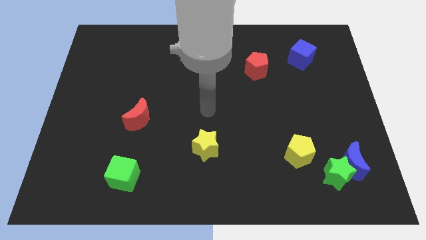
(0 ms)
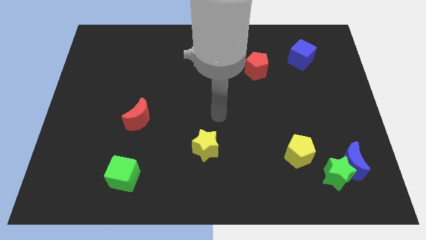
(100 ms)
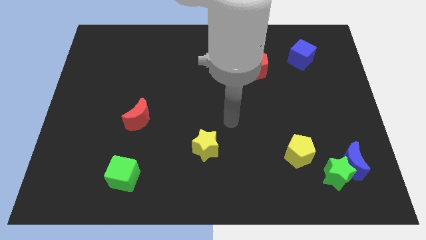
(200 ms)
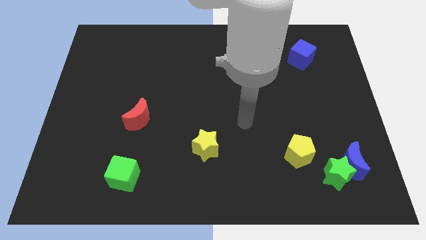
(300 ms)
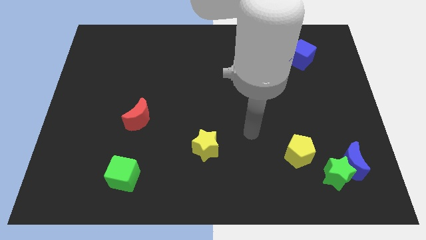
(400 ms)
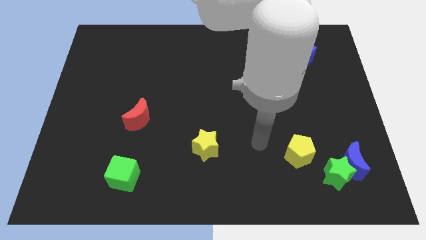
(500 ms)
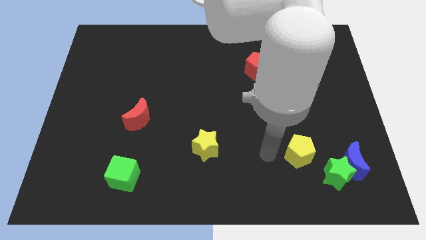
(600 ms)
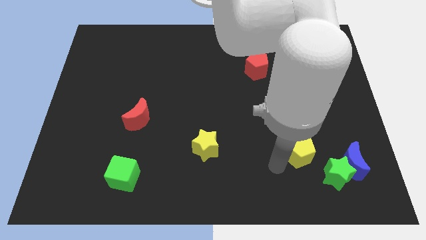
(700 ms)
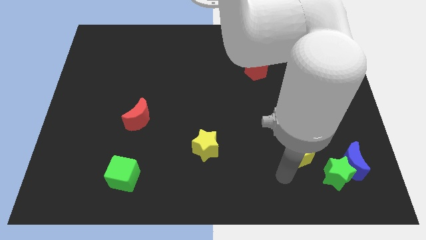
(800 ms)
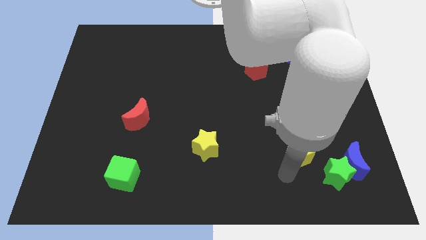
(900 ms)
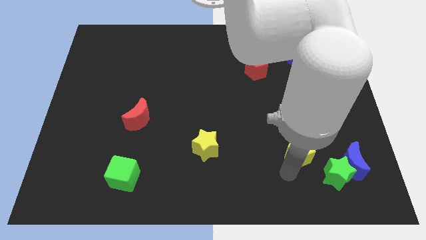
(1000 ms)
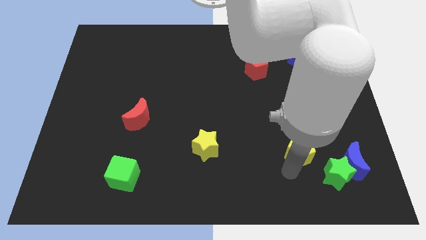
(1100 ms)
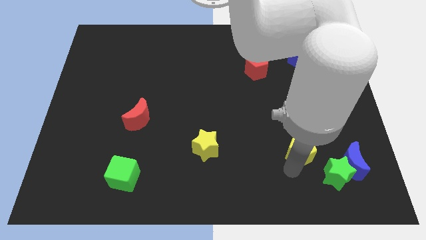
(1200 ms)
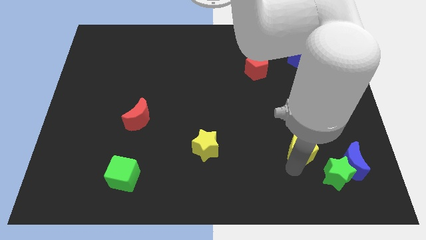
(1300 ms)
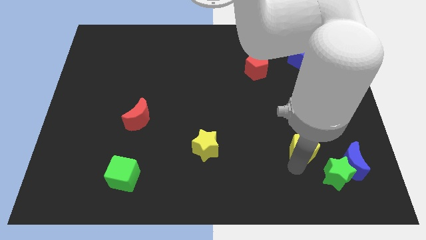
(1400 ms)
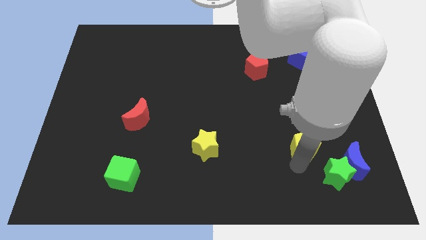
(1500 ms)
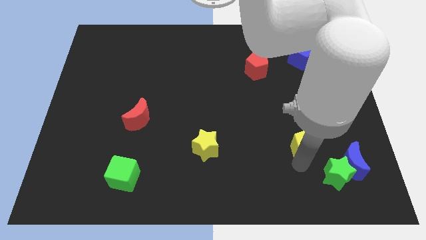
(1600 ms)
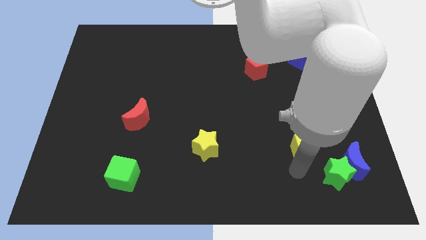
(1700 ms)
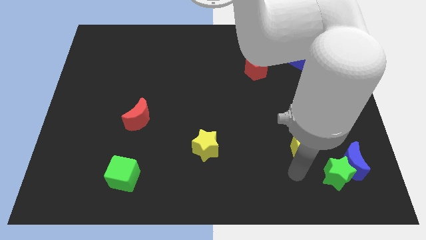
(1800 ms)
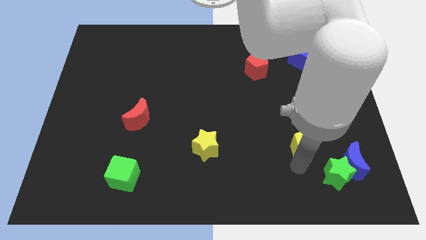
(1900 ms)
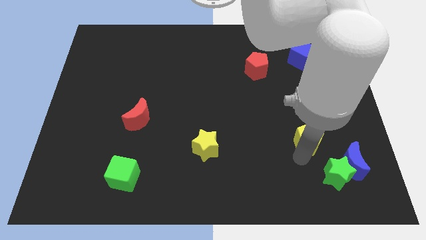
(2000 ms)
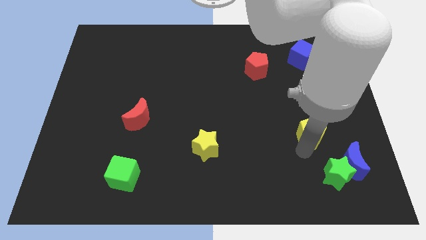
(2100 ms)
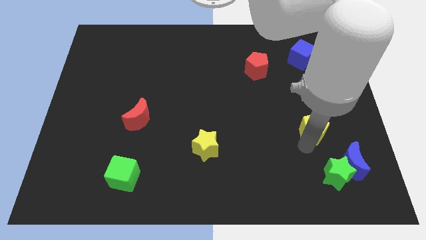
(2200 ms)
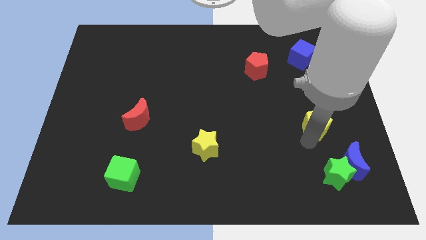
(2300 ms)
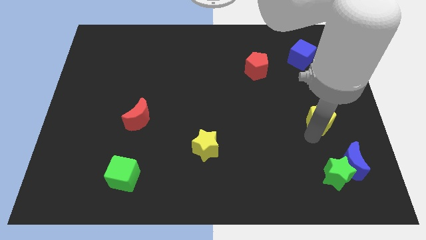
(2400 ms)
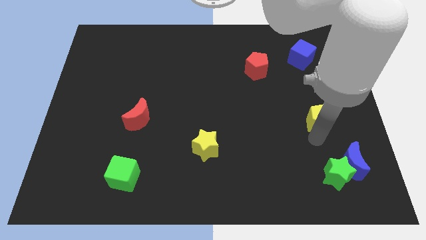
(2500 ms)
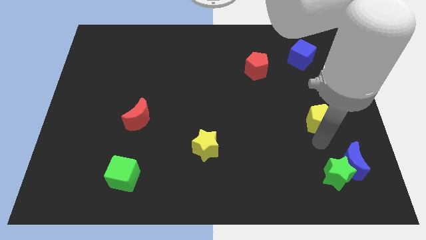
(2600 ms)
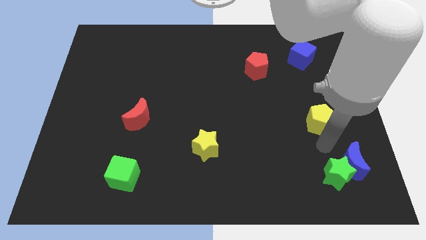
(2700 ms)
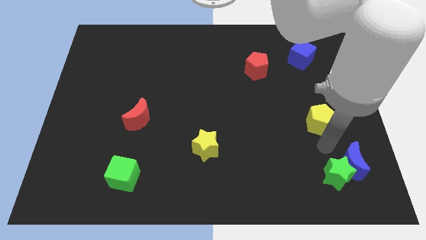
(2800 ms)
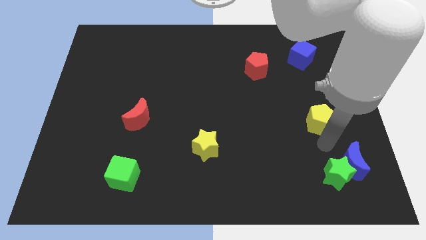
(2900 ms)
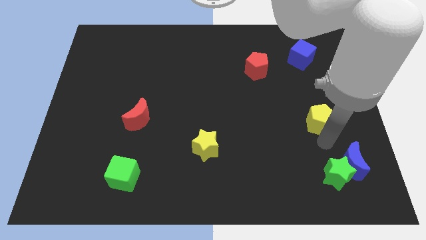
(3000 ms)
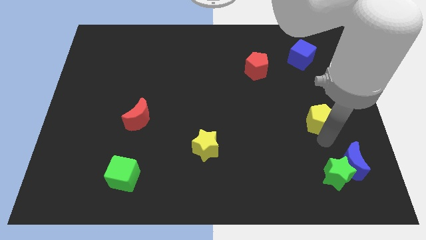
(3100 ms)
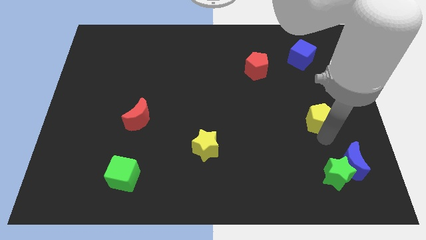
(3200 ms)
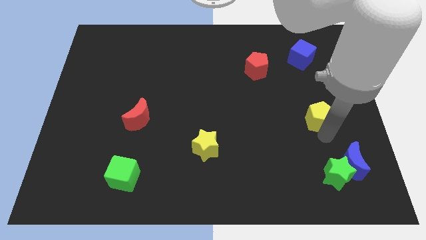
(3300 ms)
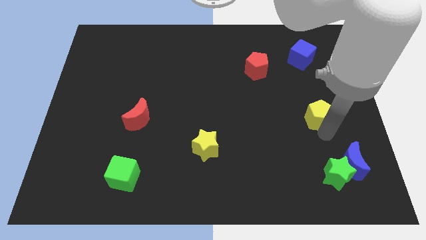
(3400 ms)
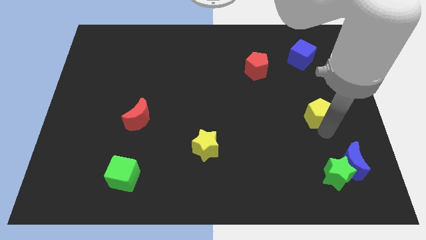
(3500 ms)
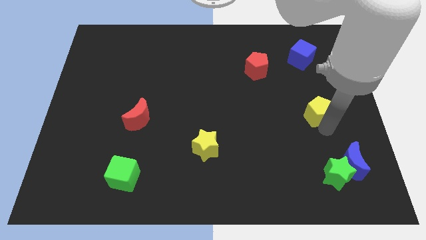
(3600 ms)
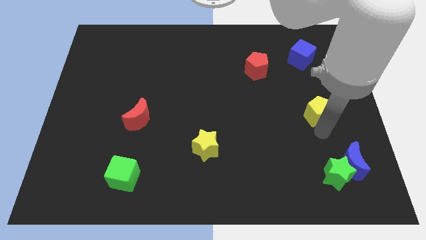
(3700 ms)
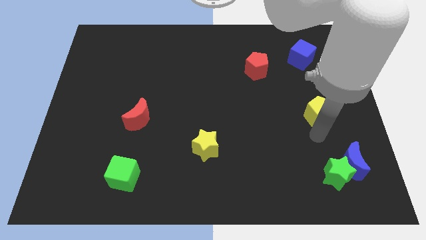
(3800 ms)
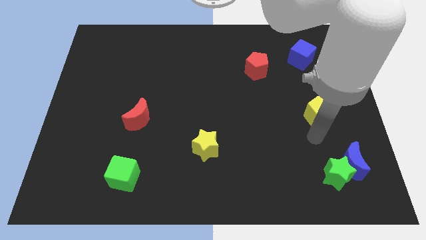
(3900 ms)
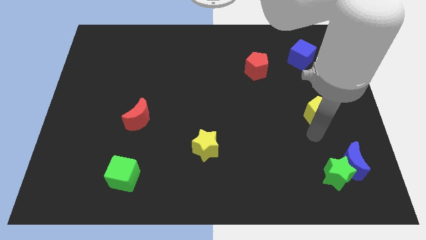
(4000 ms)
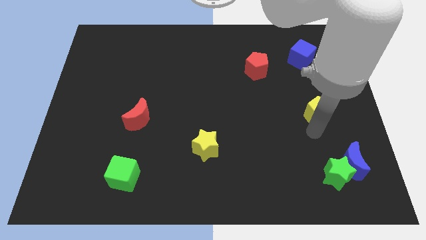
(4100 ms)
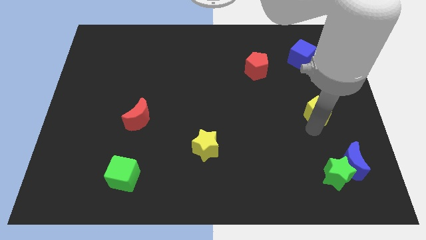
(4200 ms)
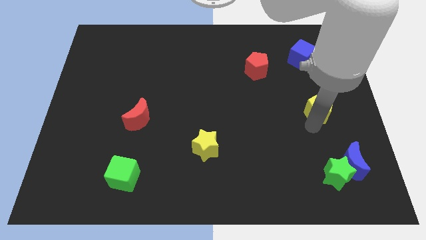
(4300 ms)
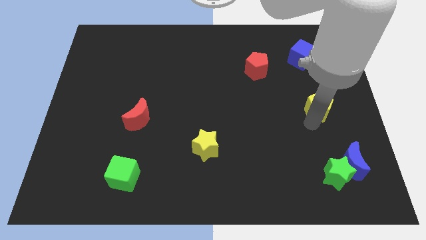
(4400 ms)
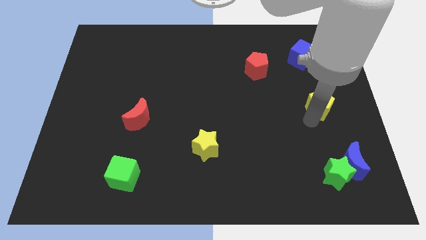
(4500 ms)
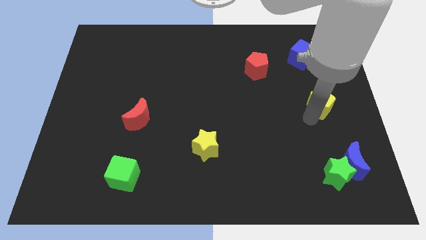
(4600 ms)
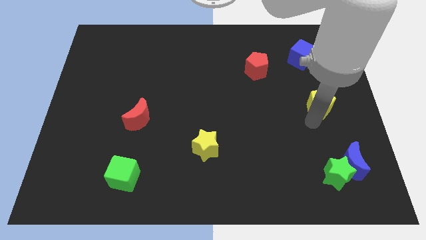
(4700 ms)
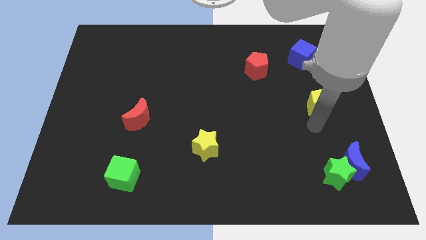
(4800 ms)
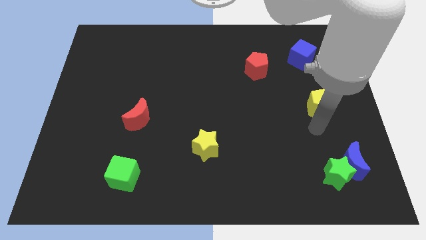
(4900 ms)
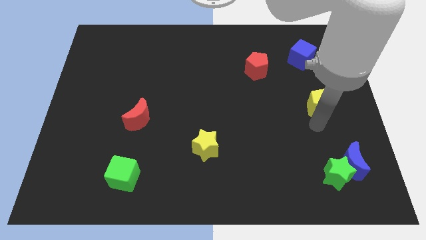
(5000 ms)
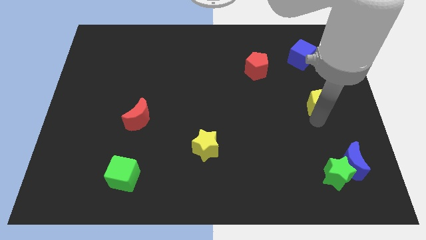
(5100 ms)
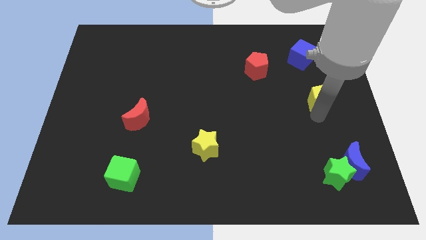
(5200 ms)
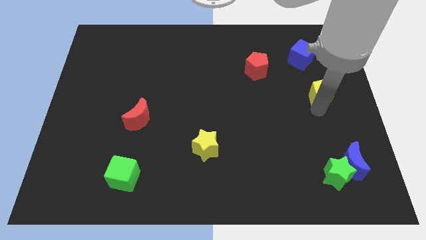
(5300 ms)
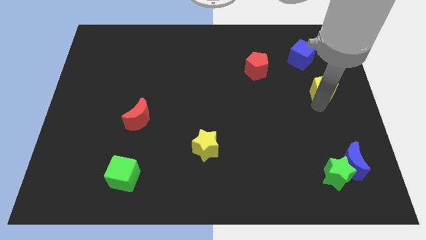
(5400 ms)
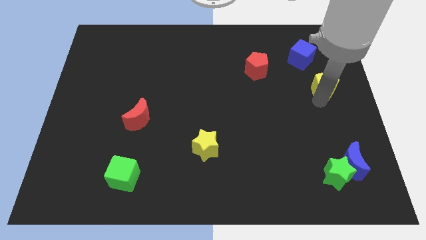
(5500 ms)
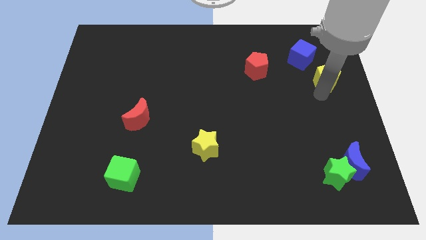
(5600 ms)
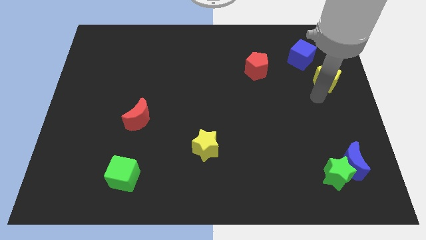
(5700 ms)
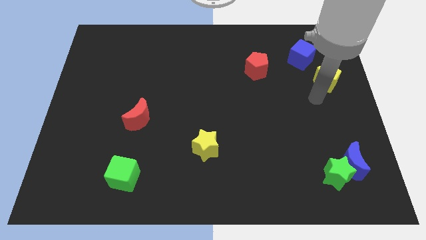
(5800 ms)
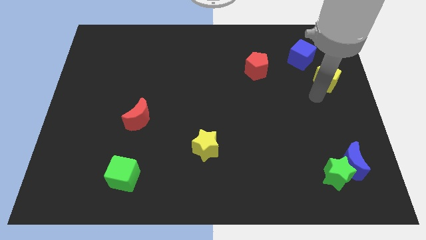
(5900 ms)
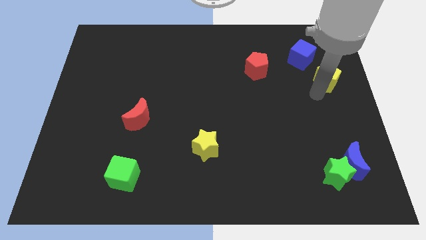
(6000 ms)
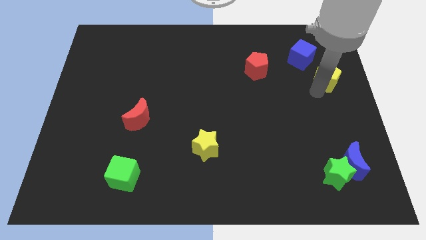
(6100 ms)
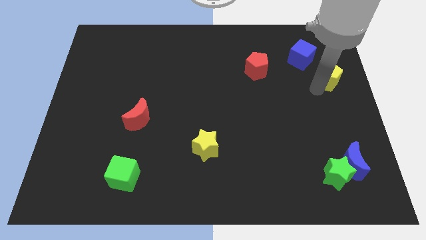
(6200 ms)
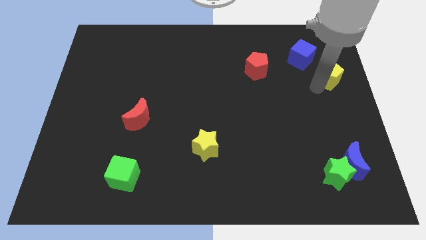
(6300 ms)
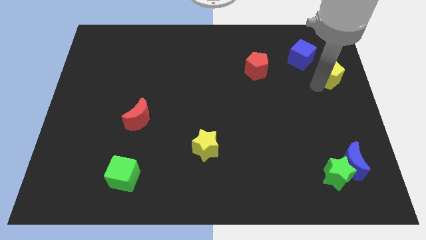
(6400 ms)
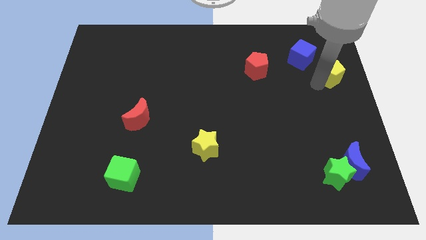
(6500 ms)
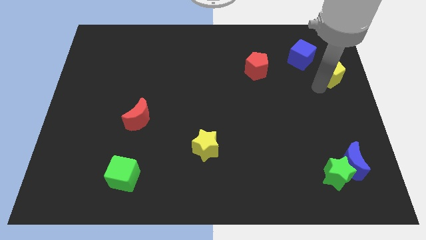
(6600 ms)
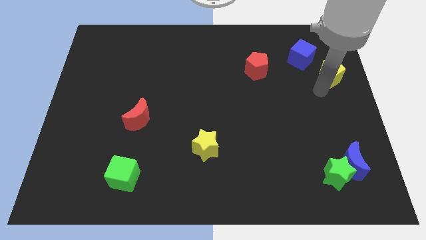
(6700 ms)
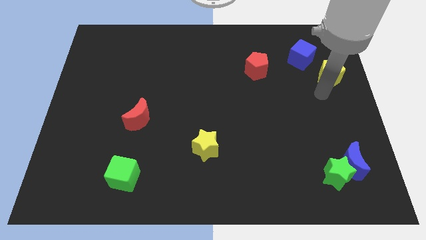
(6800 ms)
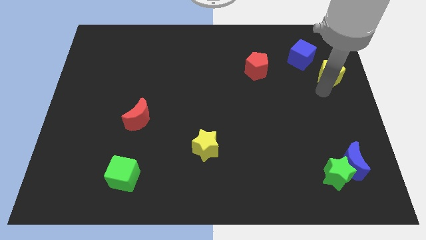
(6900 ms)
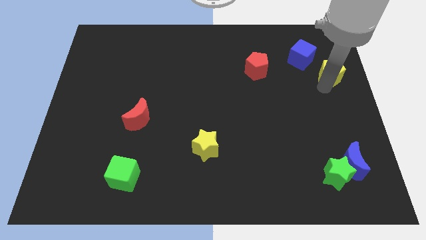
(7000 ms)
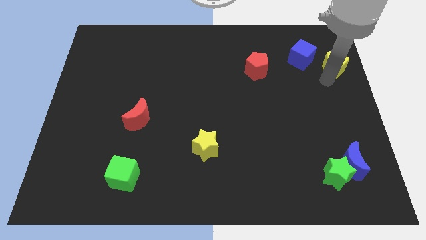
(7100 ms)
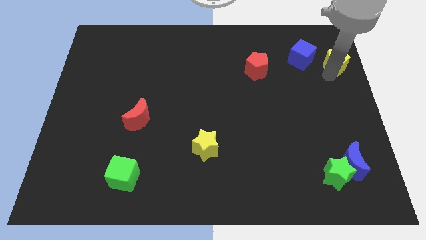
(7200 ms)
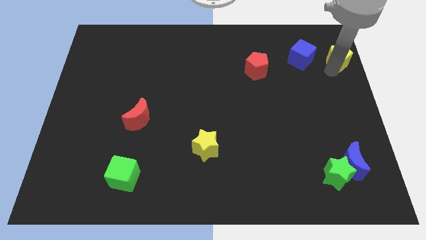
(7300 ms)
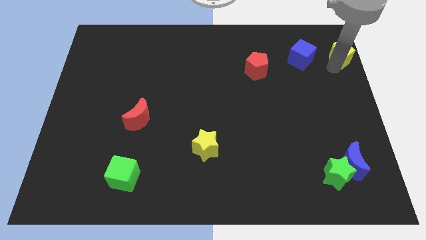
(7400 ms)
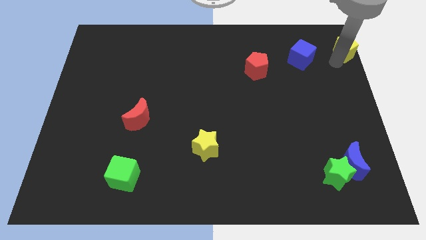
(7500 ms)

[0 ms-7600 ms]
push the yellow pentagon to the top right corner
